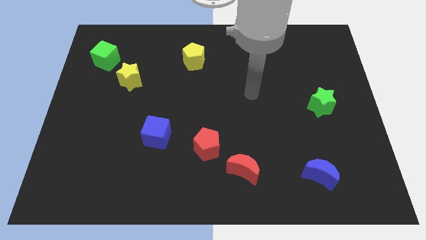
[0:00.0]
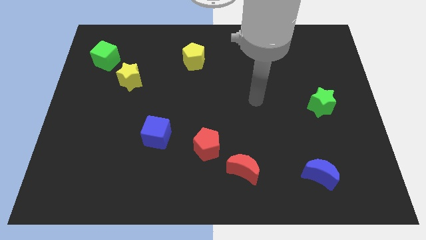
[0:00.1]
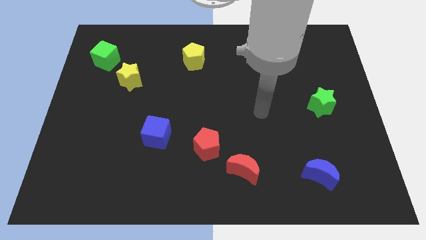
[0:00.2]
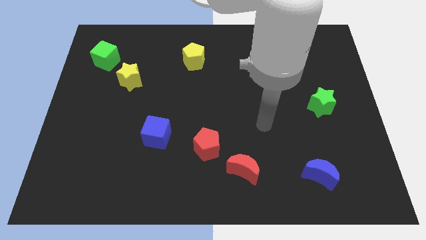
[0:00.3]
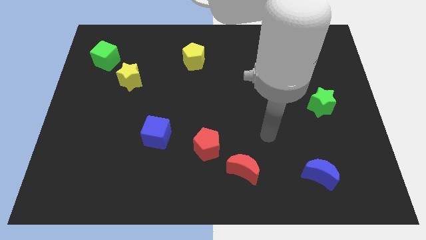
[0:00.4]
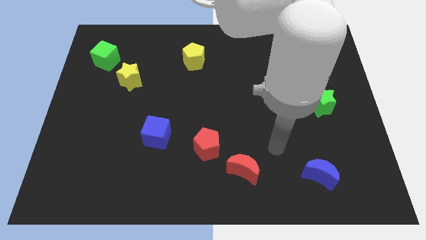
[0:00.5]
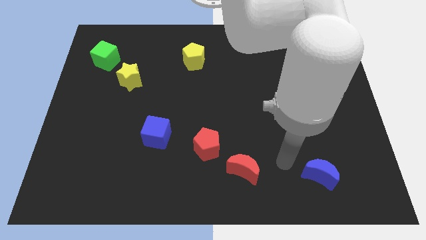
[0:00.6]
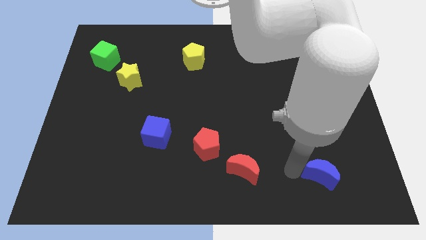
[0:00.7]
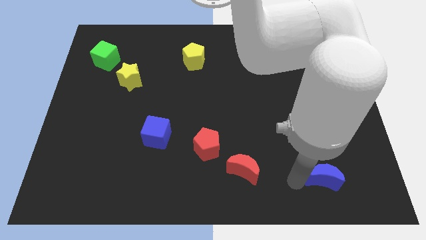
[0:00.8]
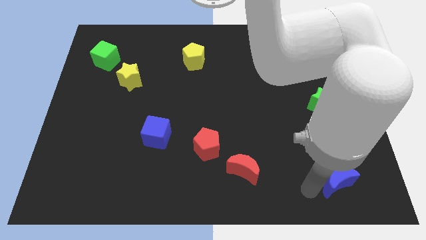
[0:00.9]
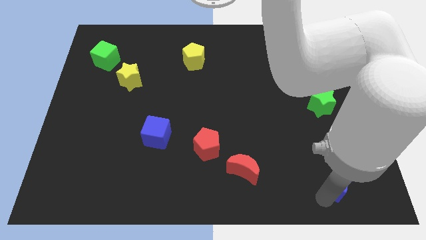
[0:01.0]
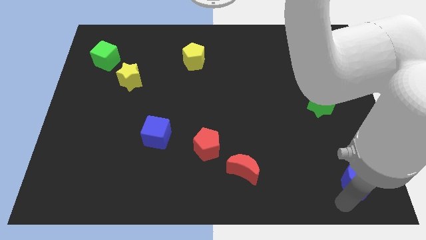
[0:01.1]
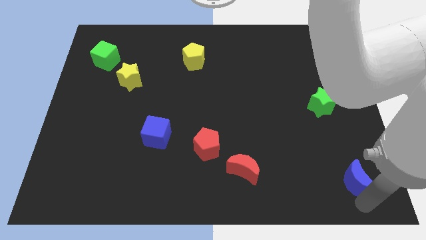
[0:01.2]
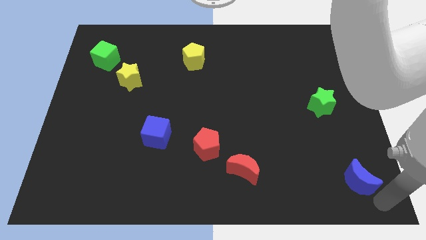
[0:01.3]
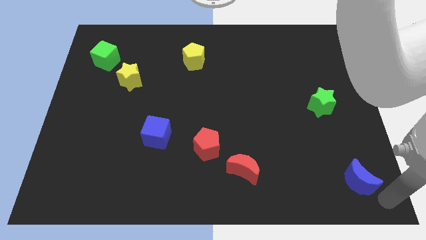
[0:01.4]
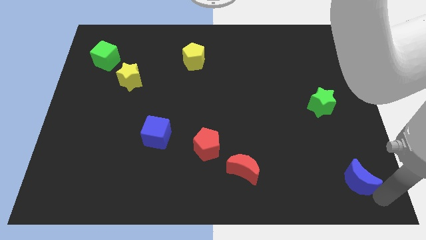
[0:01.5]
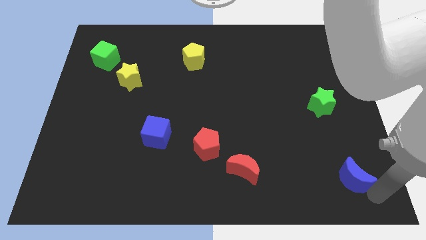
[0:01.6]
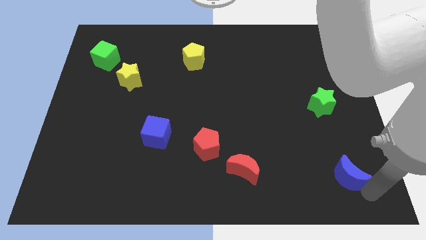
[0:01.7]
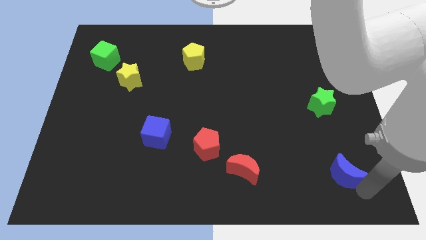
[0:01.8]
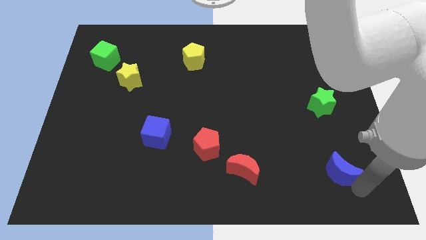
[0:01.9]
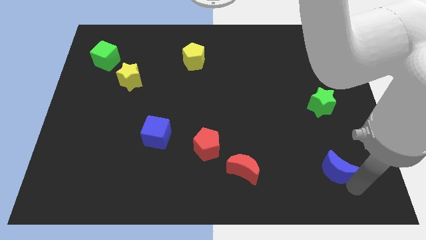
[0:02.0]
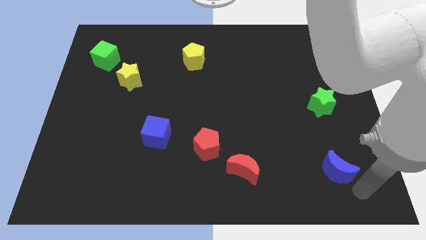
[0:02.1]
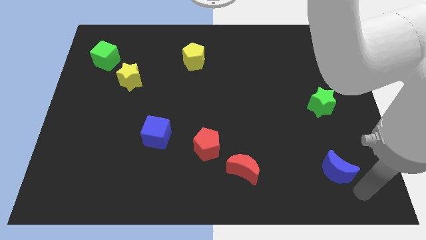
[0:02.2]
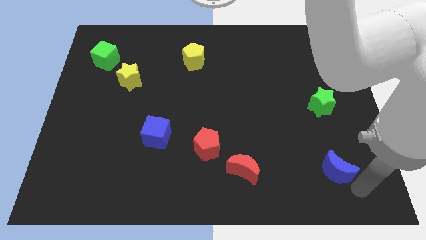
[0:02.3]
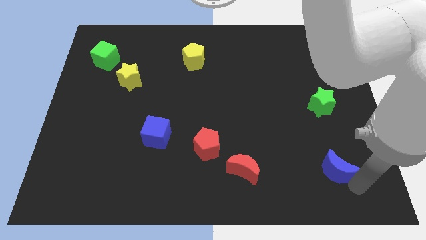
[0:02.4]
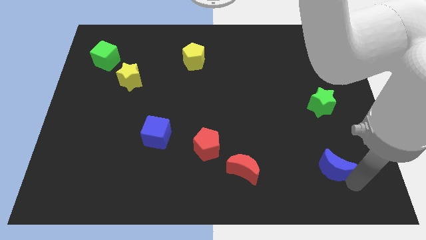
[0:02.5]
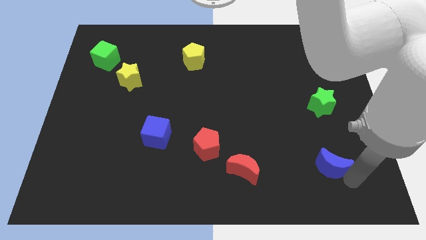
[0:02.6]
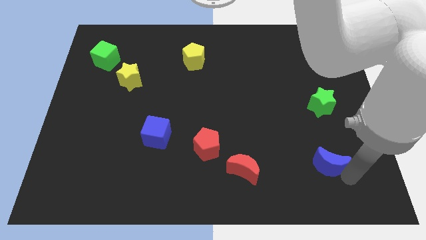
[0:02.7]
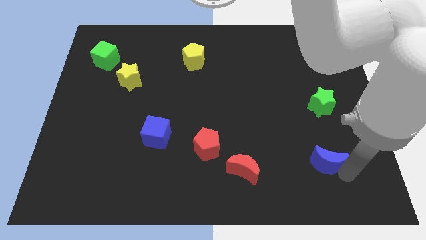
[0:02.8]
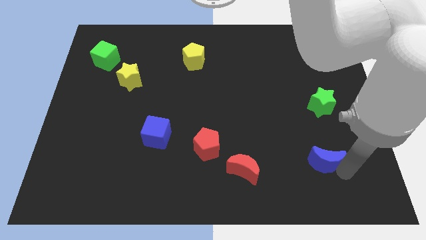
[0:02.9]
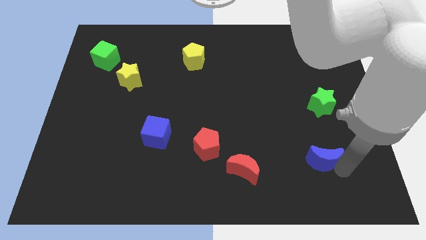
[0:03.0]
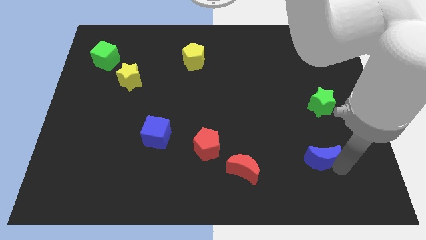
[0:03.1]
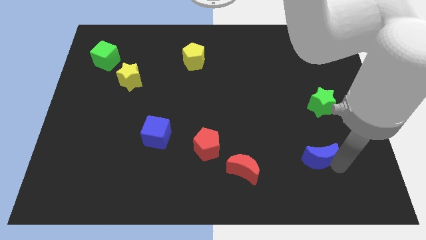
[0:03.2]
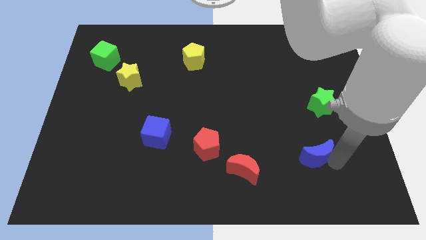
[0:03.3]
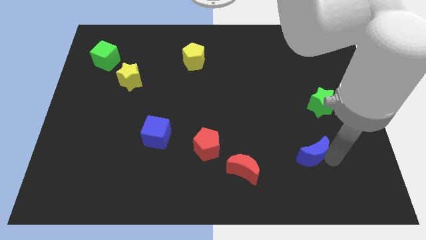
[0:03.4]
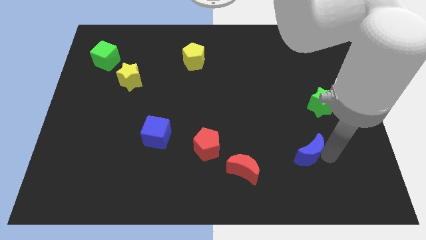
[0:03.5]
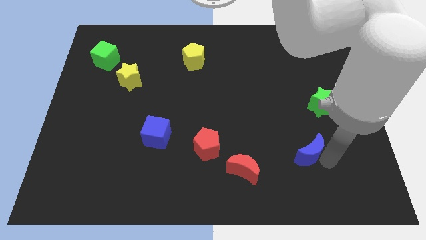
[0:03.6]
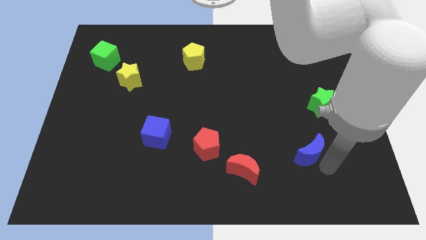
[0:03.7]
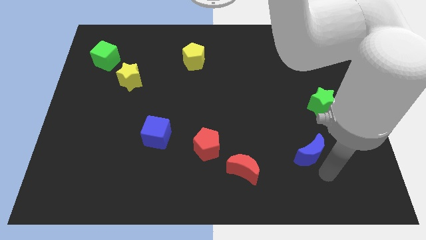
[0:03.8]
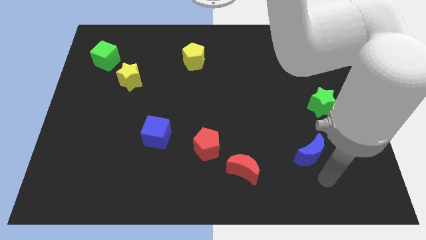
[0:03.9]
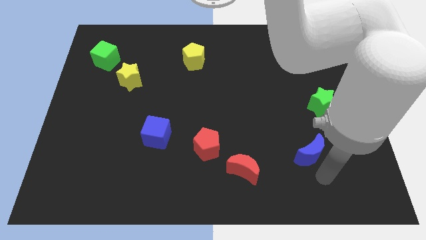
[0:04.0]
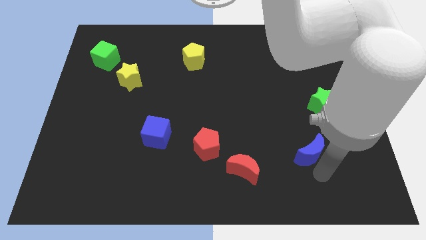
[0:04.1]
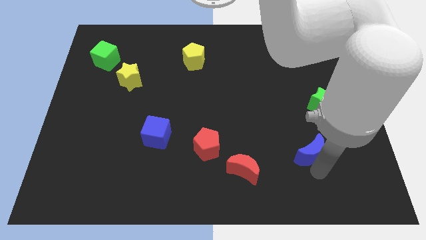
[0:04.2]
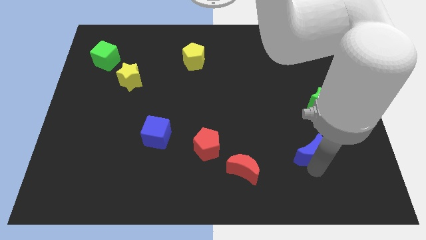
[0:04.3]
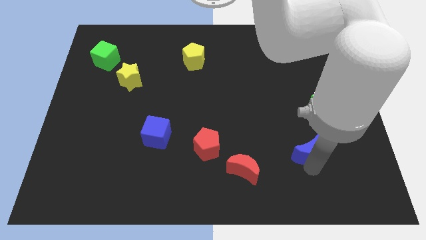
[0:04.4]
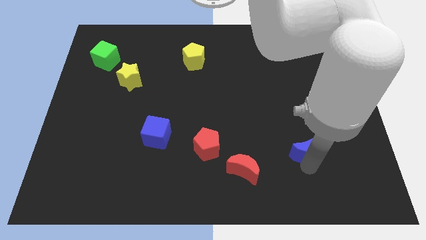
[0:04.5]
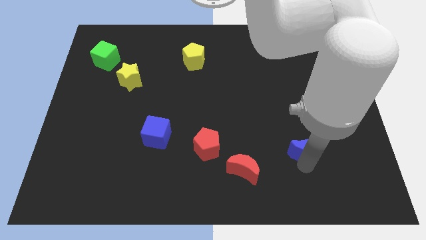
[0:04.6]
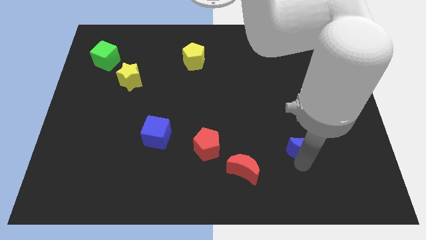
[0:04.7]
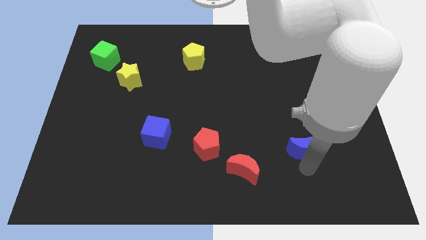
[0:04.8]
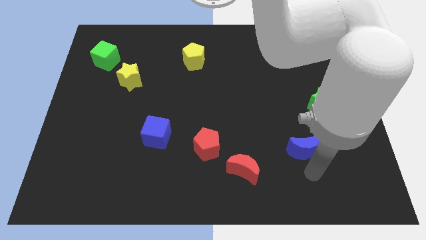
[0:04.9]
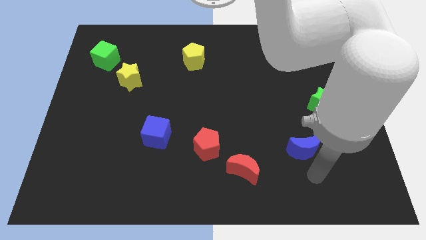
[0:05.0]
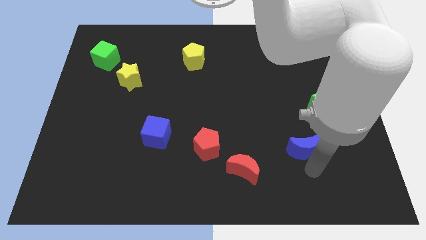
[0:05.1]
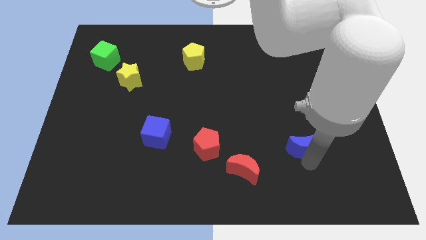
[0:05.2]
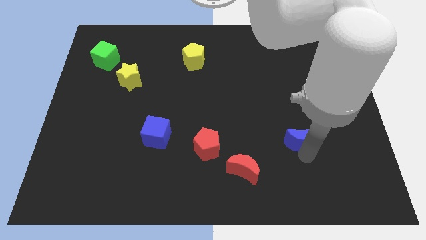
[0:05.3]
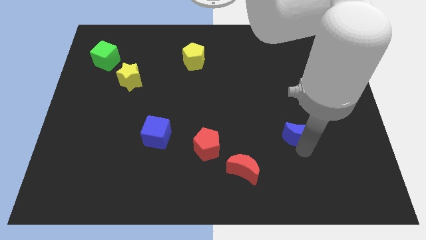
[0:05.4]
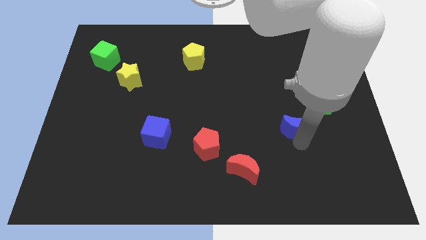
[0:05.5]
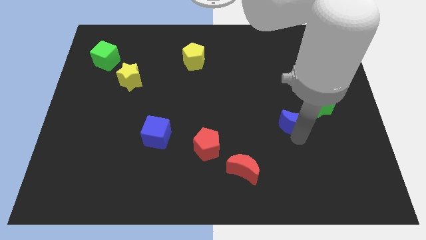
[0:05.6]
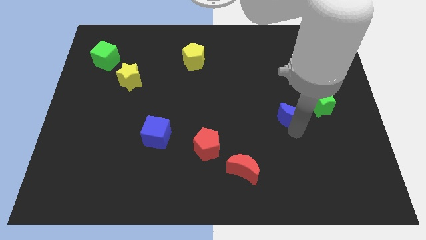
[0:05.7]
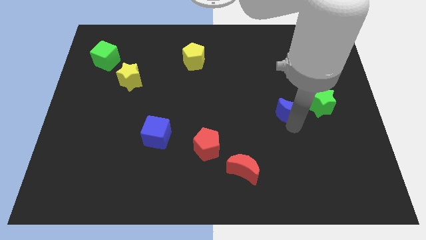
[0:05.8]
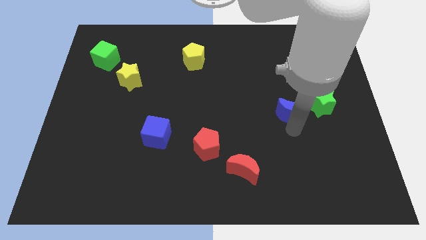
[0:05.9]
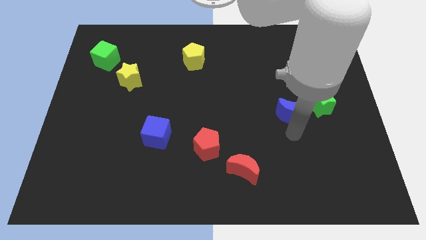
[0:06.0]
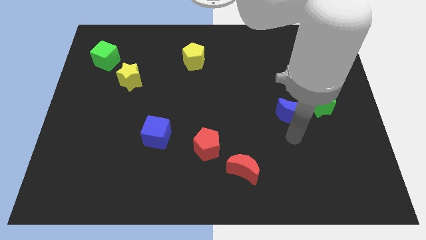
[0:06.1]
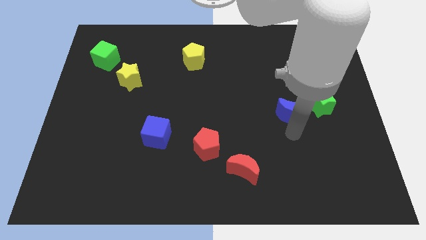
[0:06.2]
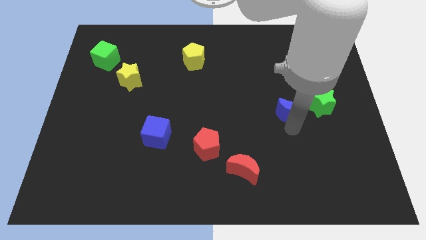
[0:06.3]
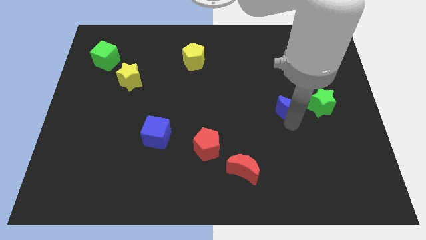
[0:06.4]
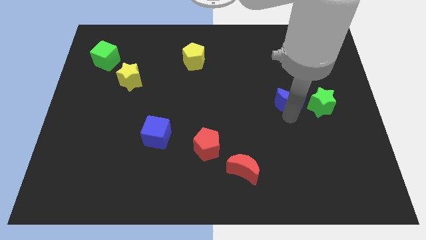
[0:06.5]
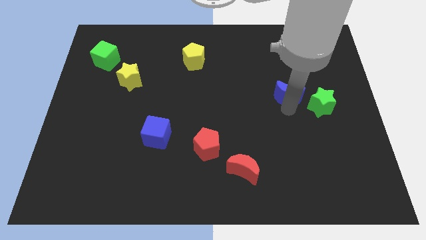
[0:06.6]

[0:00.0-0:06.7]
move the blue moon up

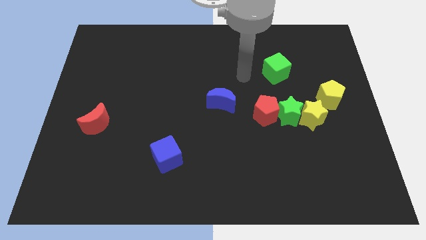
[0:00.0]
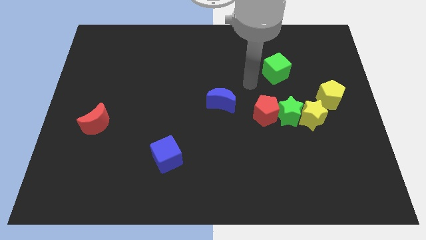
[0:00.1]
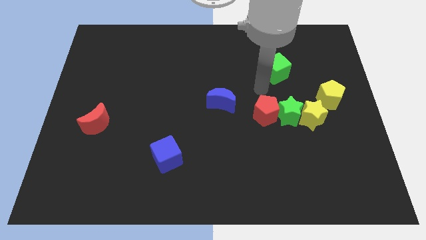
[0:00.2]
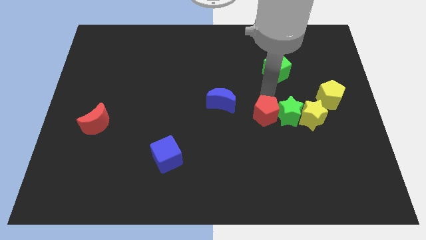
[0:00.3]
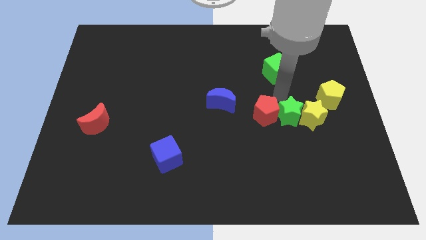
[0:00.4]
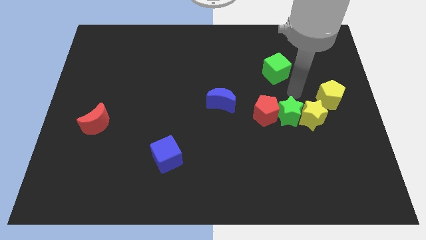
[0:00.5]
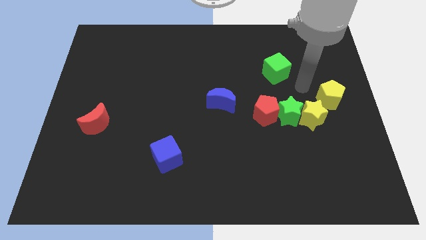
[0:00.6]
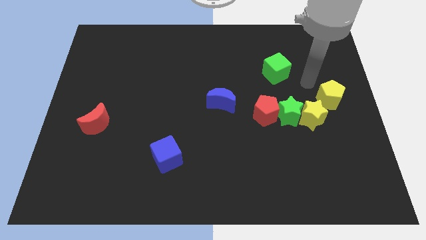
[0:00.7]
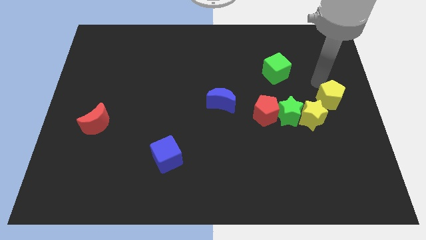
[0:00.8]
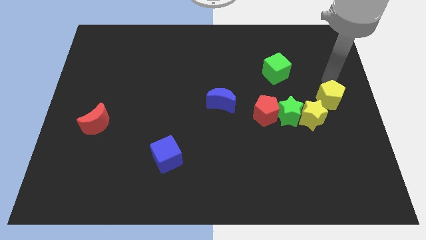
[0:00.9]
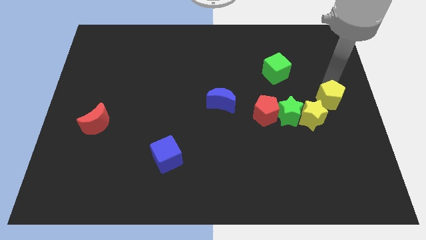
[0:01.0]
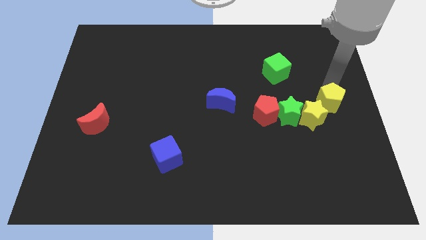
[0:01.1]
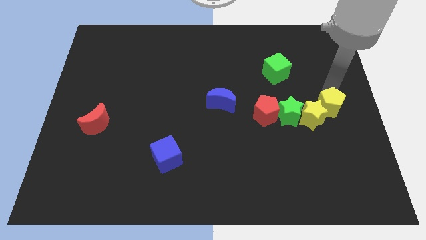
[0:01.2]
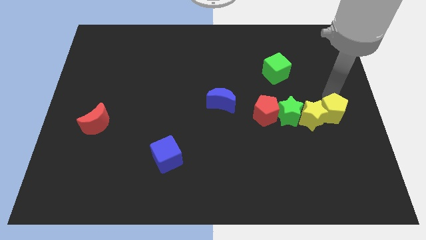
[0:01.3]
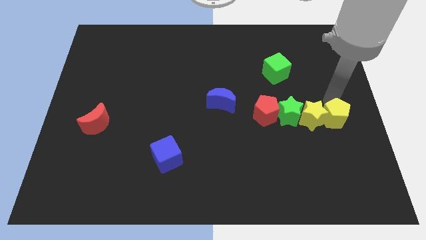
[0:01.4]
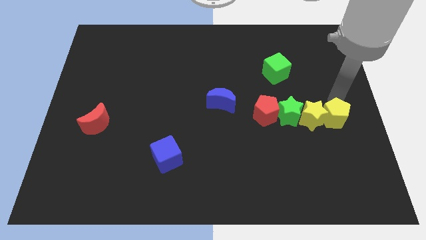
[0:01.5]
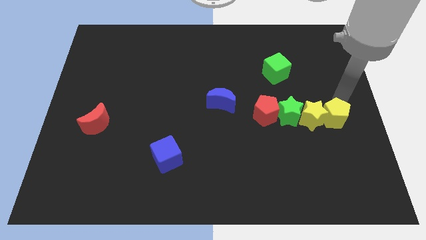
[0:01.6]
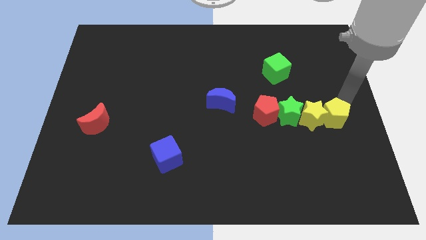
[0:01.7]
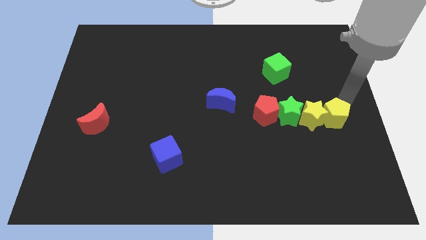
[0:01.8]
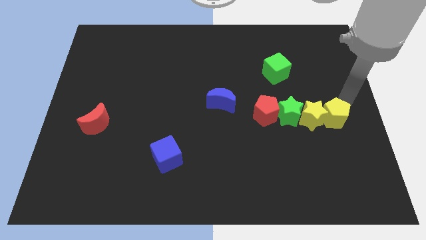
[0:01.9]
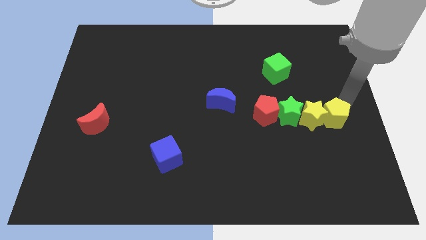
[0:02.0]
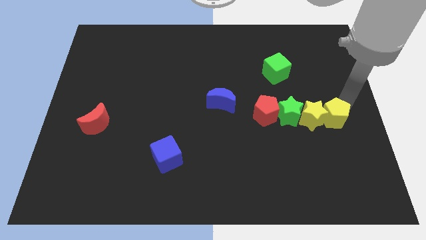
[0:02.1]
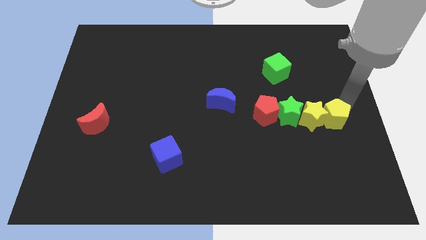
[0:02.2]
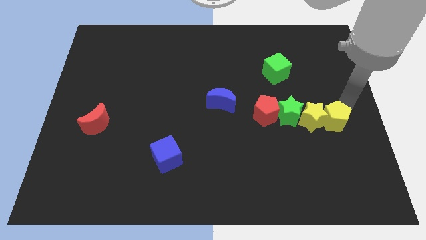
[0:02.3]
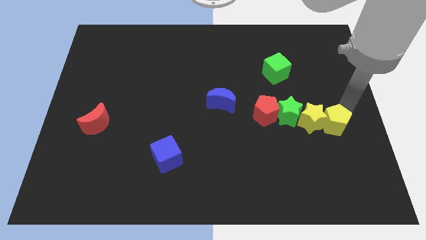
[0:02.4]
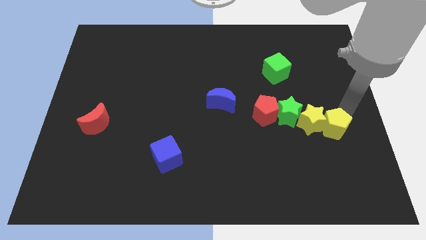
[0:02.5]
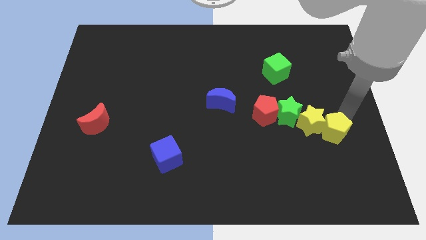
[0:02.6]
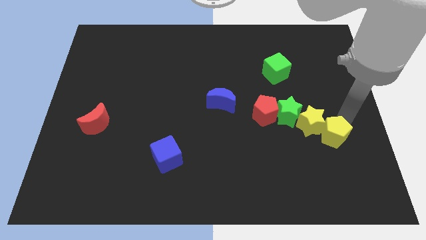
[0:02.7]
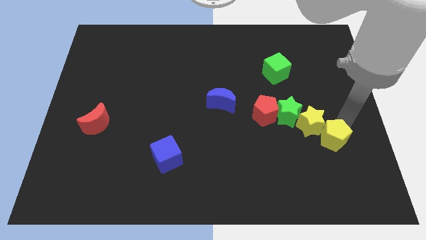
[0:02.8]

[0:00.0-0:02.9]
slide the yellow pentagon somewhat down and then to the left
